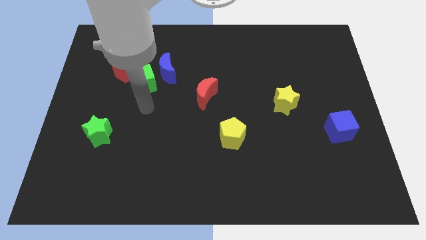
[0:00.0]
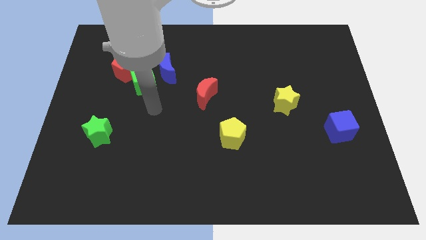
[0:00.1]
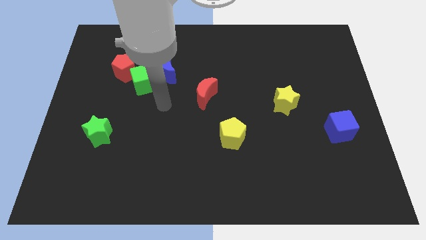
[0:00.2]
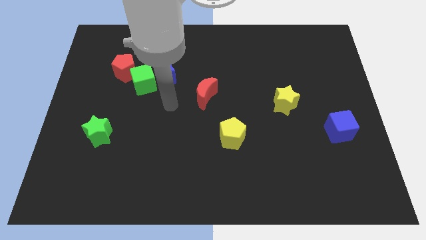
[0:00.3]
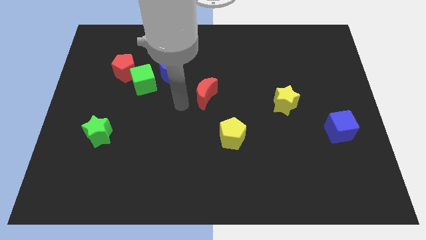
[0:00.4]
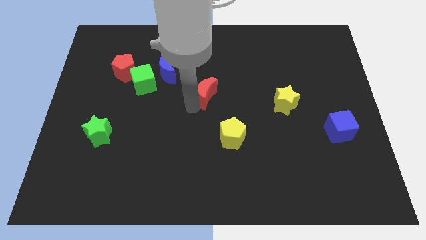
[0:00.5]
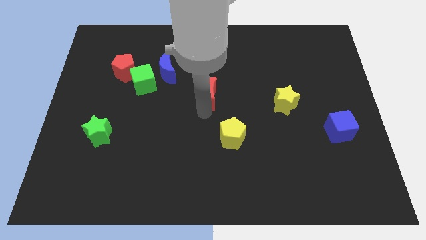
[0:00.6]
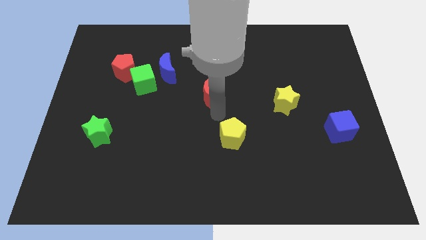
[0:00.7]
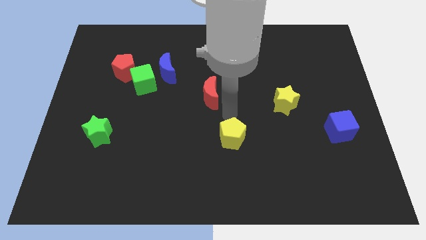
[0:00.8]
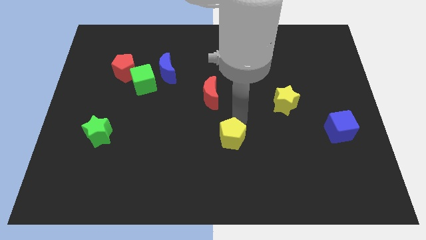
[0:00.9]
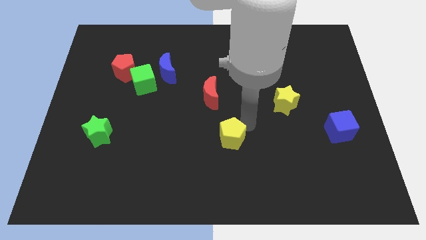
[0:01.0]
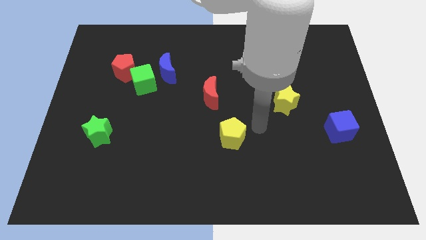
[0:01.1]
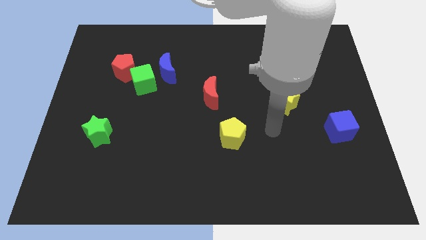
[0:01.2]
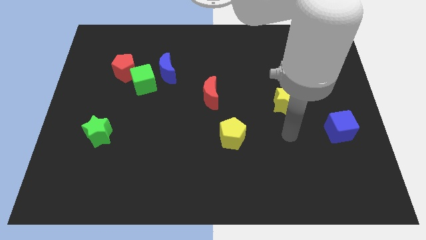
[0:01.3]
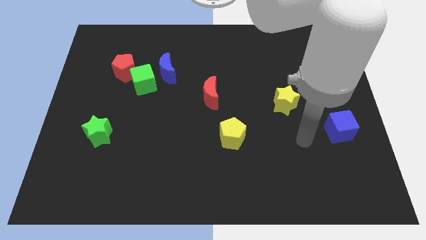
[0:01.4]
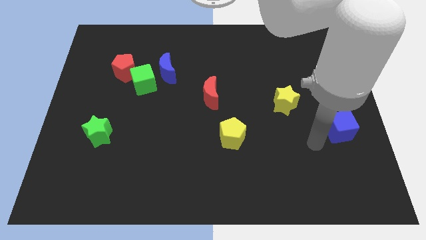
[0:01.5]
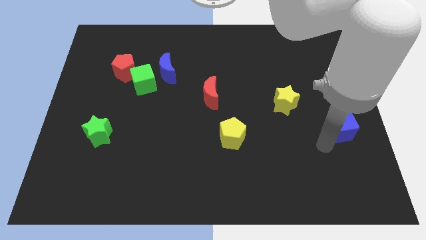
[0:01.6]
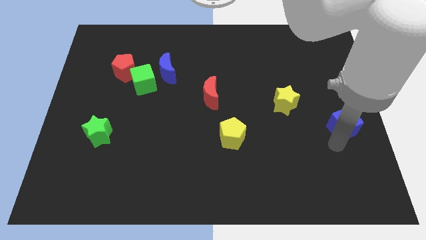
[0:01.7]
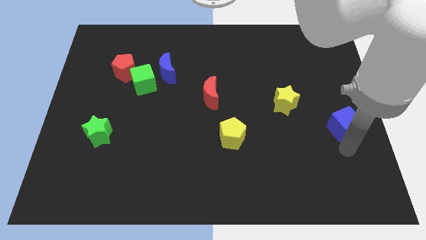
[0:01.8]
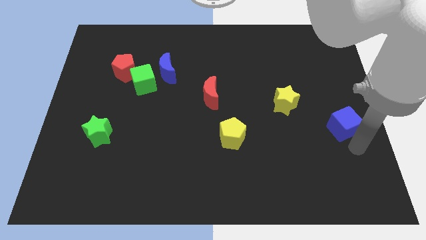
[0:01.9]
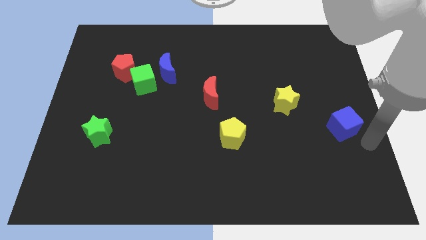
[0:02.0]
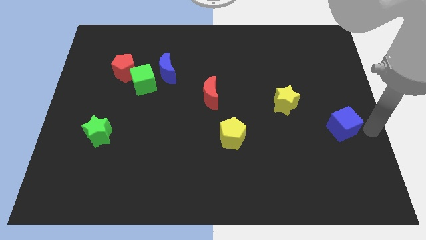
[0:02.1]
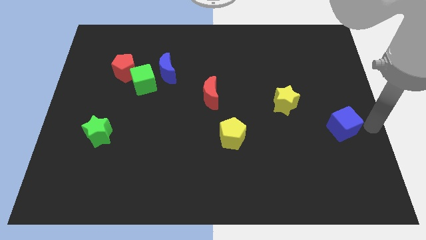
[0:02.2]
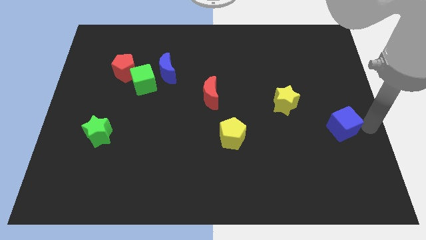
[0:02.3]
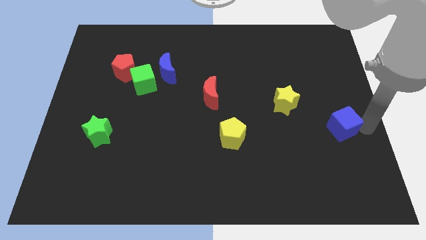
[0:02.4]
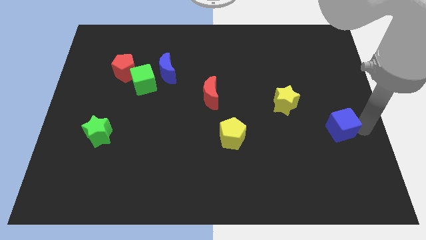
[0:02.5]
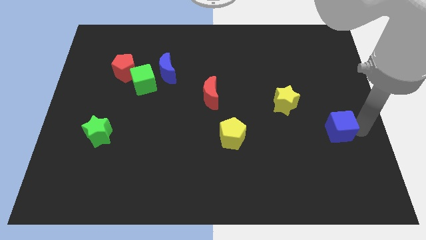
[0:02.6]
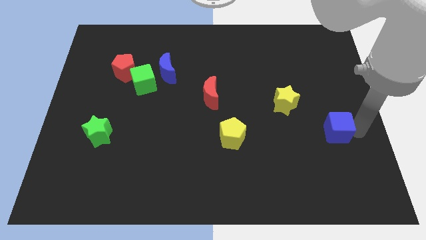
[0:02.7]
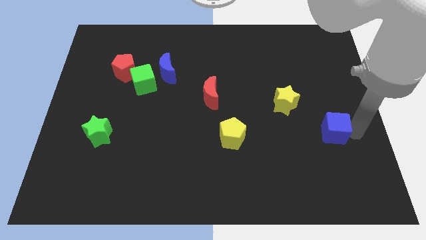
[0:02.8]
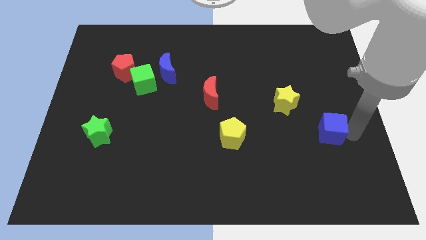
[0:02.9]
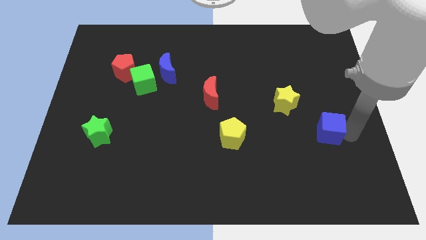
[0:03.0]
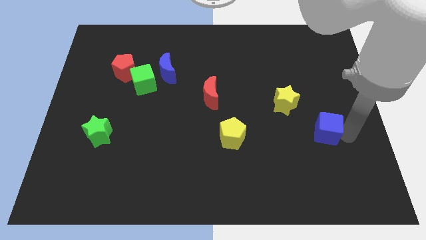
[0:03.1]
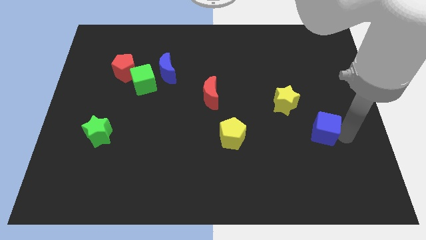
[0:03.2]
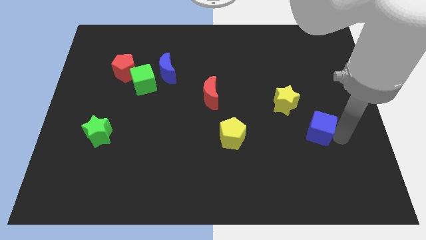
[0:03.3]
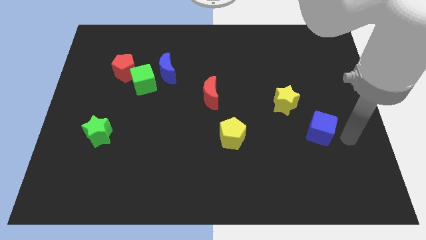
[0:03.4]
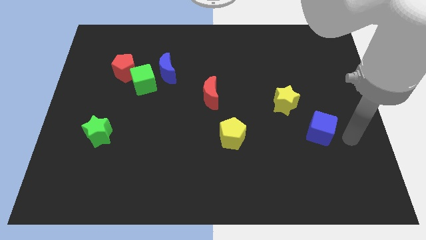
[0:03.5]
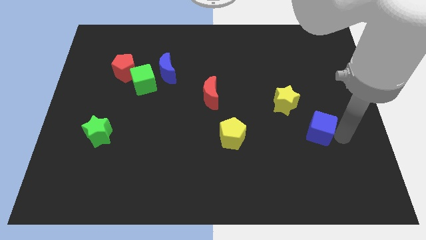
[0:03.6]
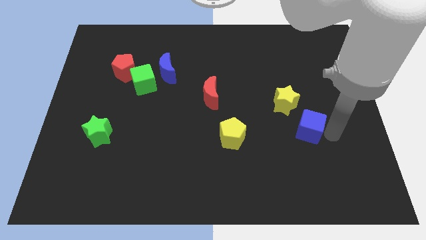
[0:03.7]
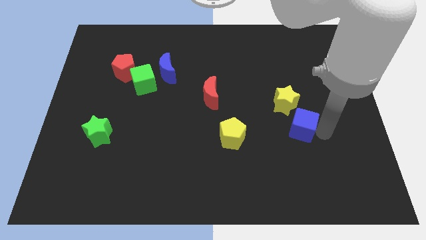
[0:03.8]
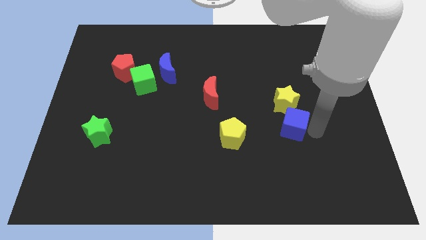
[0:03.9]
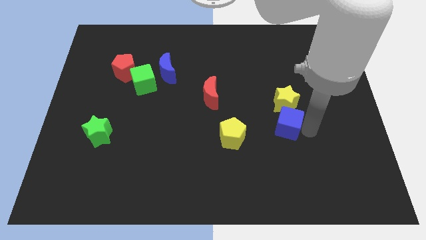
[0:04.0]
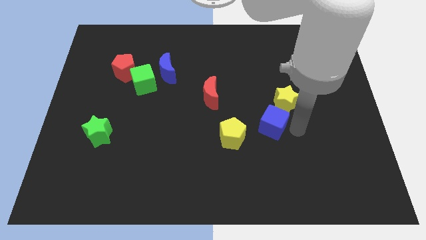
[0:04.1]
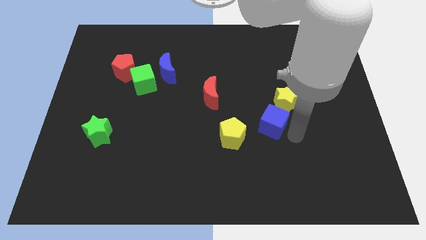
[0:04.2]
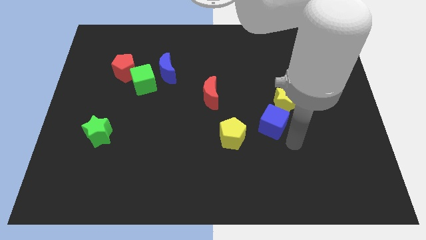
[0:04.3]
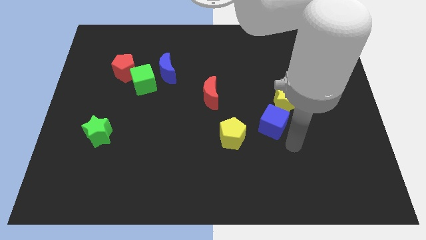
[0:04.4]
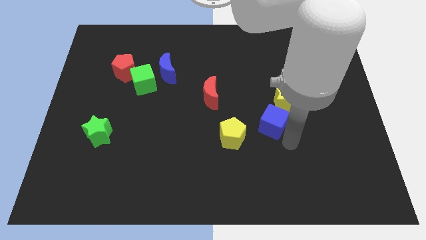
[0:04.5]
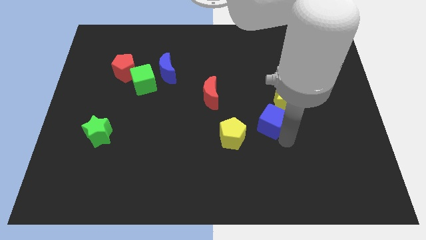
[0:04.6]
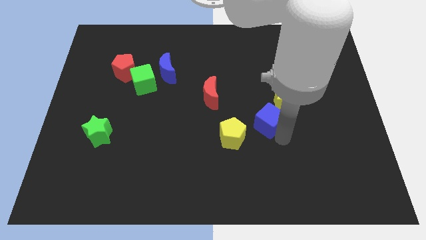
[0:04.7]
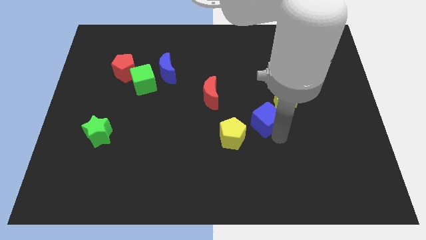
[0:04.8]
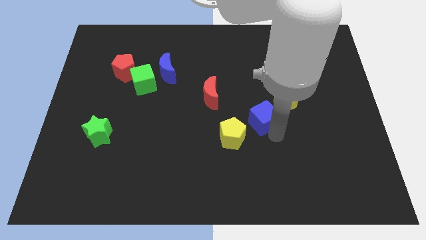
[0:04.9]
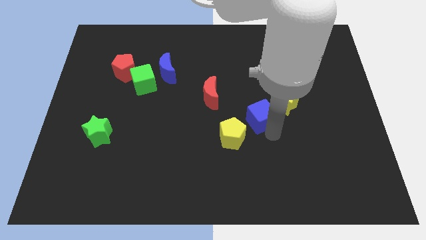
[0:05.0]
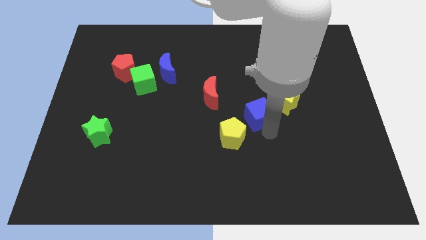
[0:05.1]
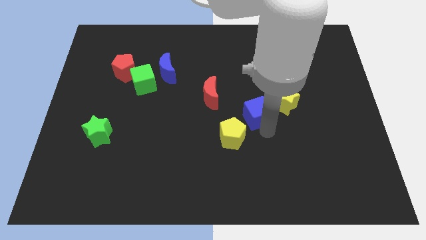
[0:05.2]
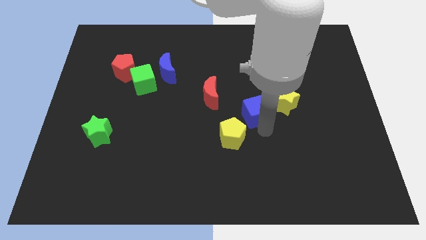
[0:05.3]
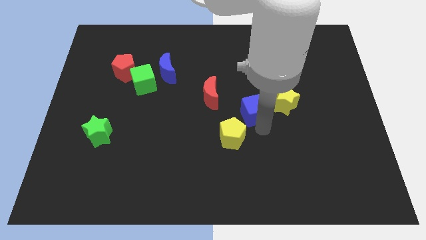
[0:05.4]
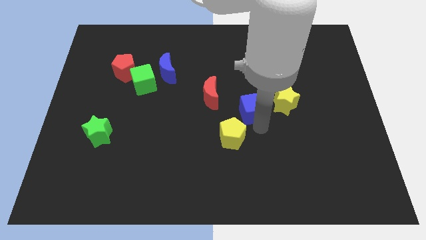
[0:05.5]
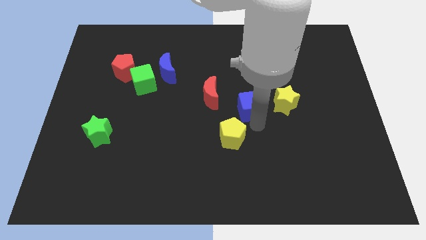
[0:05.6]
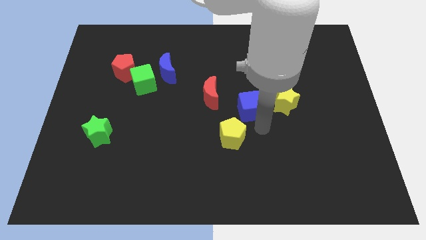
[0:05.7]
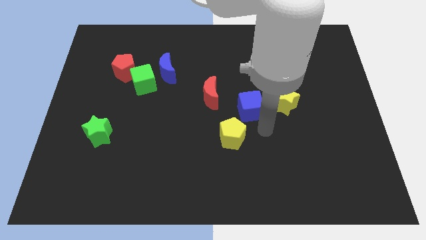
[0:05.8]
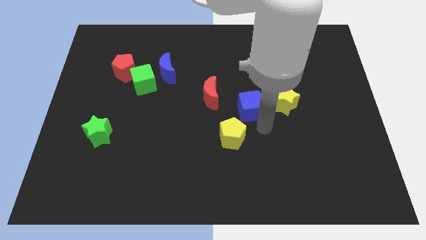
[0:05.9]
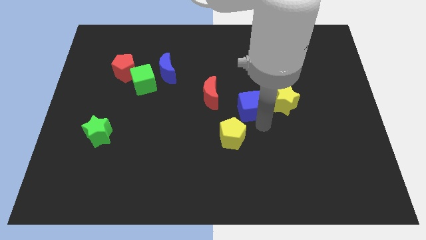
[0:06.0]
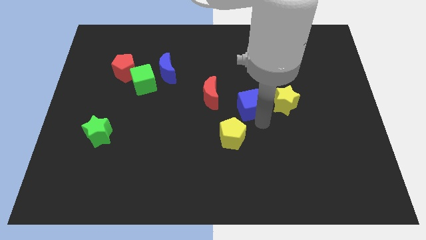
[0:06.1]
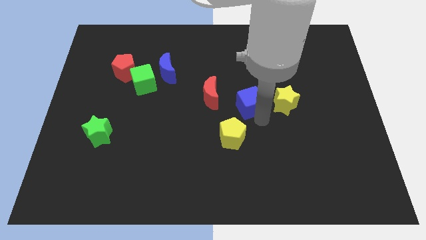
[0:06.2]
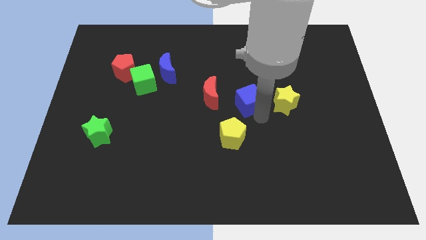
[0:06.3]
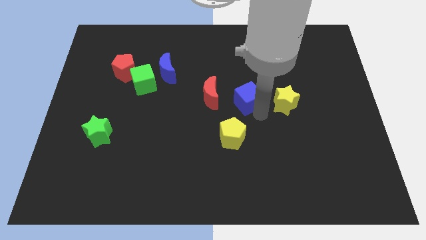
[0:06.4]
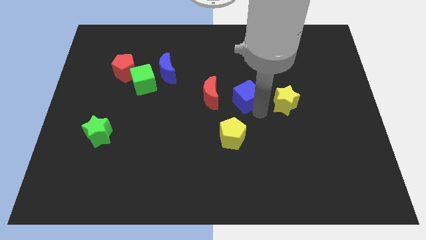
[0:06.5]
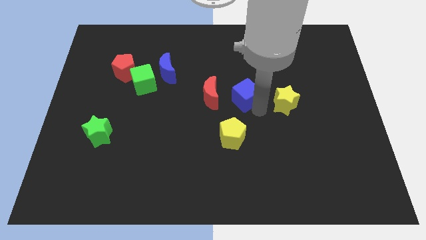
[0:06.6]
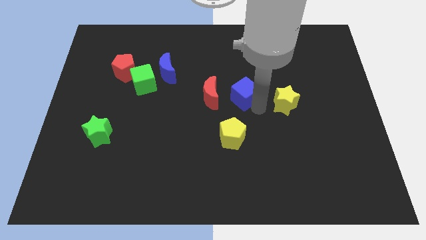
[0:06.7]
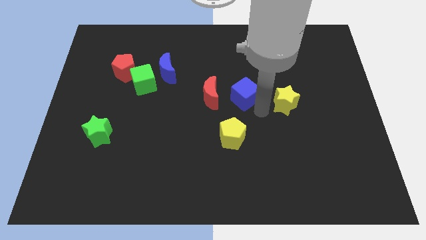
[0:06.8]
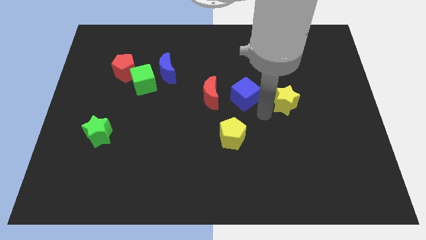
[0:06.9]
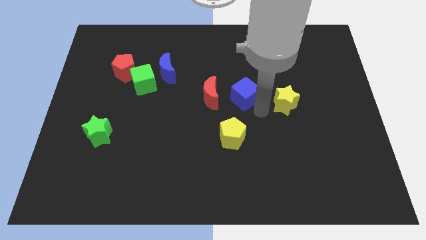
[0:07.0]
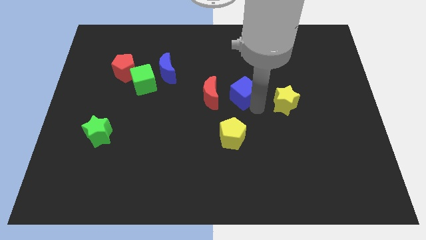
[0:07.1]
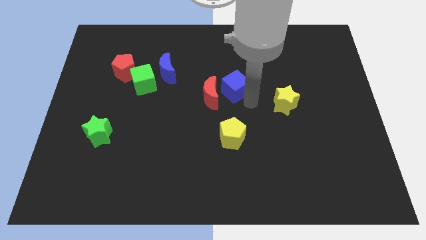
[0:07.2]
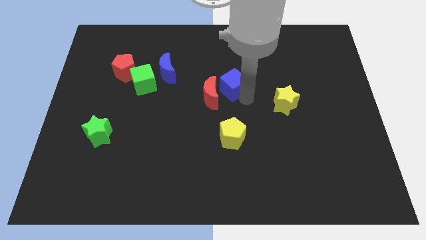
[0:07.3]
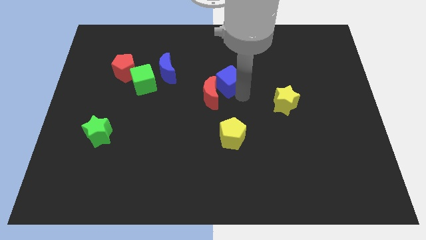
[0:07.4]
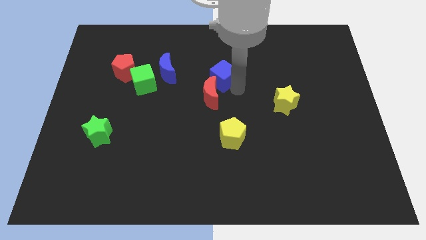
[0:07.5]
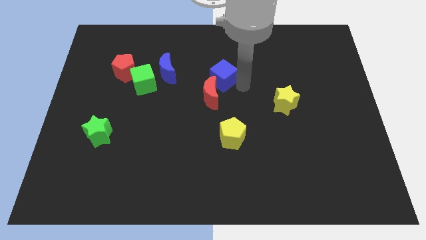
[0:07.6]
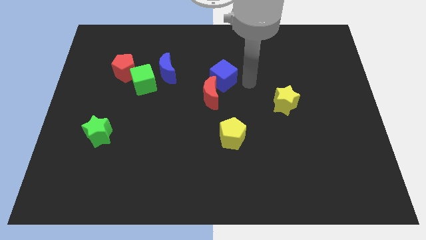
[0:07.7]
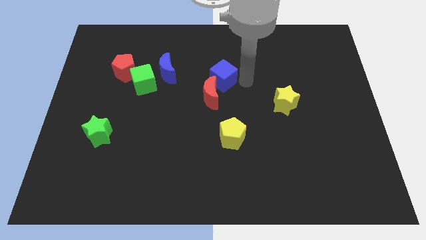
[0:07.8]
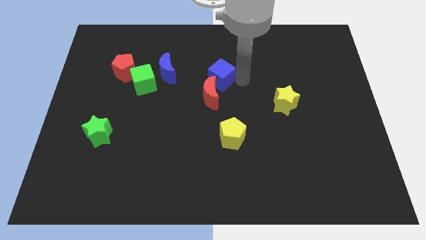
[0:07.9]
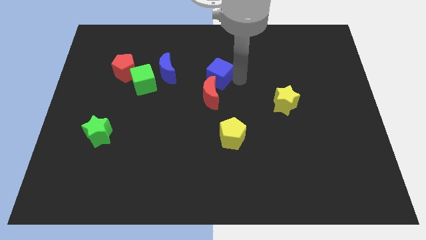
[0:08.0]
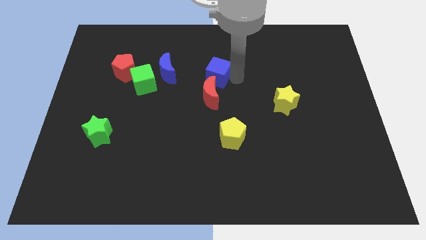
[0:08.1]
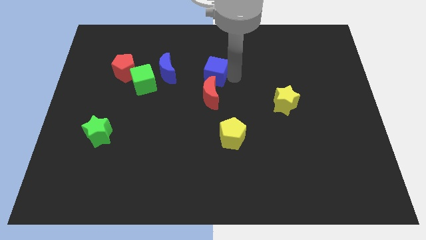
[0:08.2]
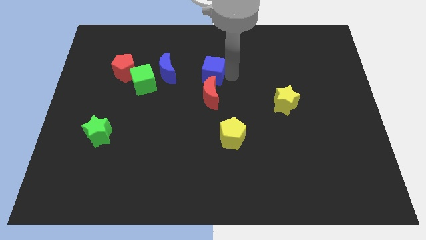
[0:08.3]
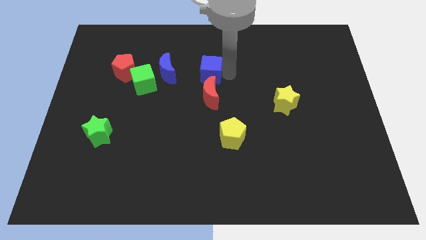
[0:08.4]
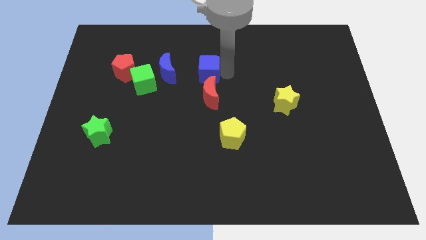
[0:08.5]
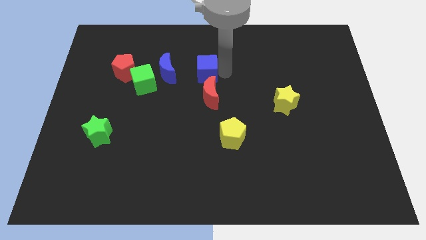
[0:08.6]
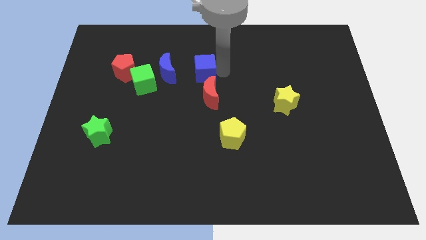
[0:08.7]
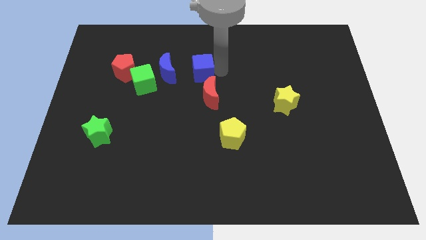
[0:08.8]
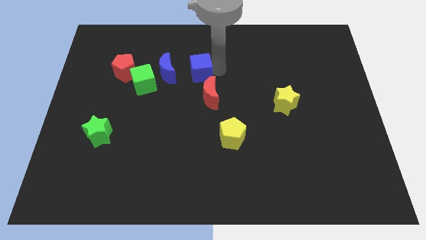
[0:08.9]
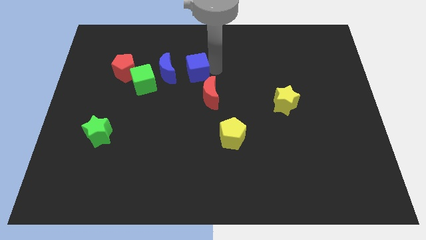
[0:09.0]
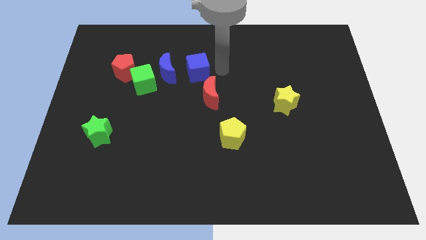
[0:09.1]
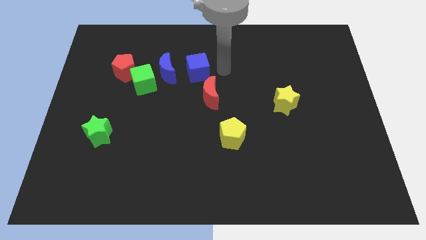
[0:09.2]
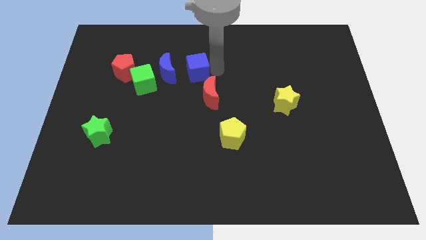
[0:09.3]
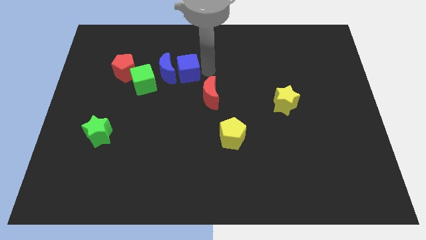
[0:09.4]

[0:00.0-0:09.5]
push the blue cube close to the blue moon
